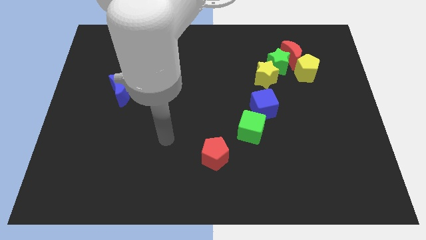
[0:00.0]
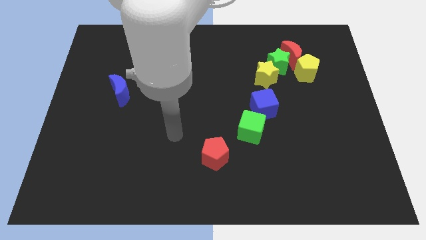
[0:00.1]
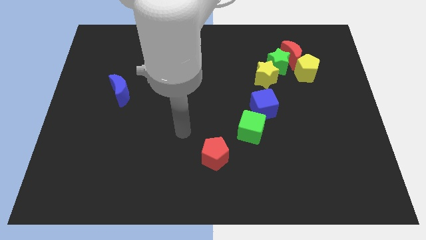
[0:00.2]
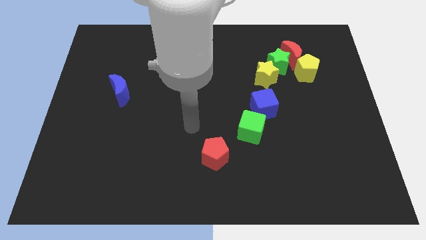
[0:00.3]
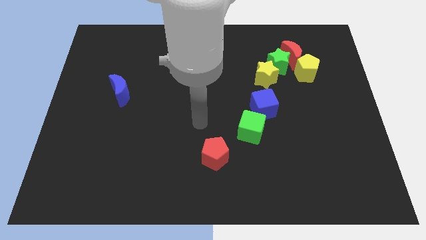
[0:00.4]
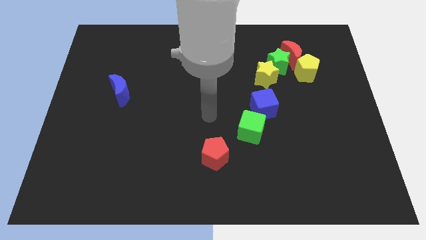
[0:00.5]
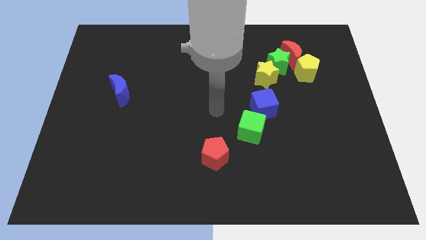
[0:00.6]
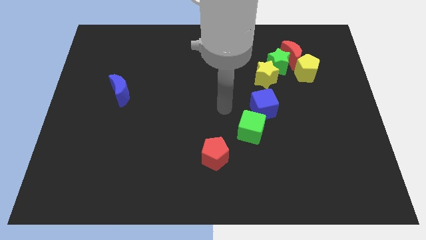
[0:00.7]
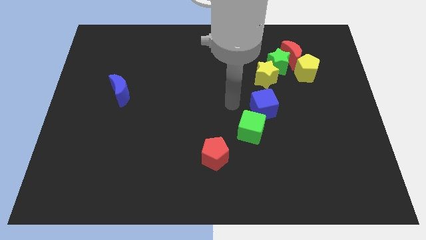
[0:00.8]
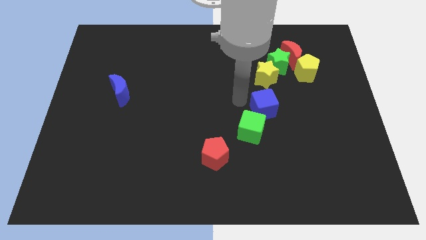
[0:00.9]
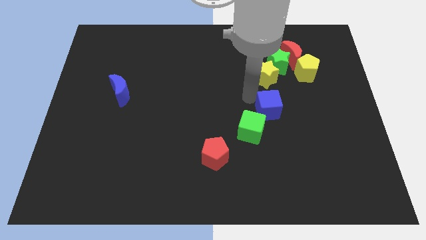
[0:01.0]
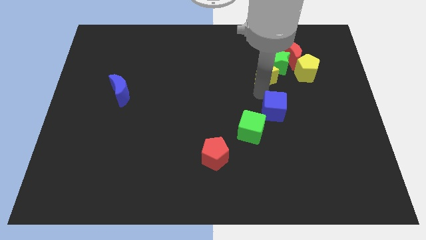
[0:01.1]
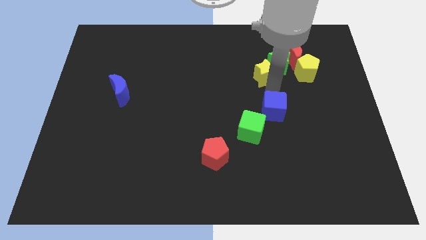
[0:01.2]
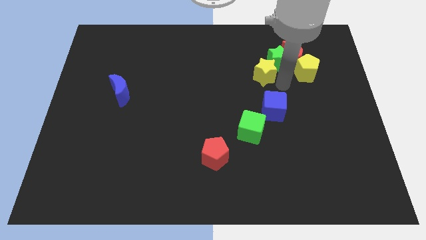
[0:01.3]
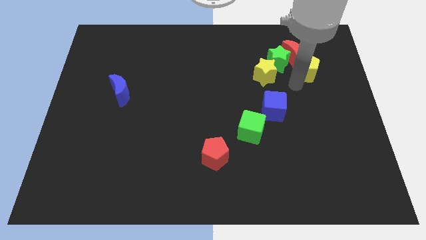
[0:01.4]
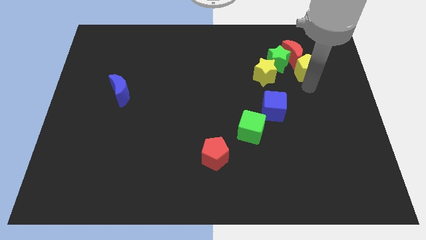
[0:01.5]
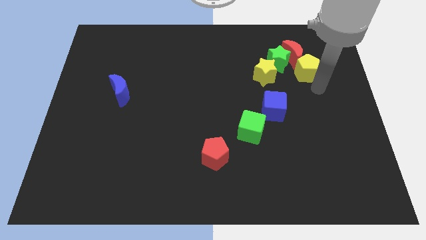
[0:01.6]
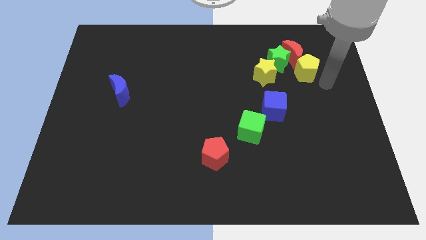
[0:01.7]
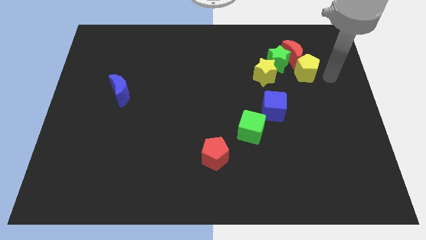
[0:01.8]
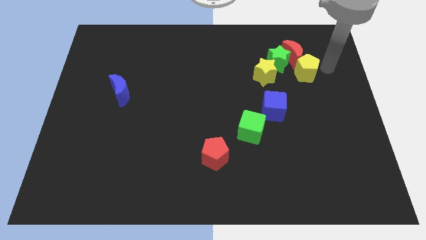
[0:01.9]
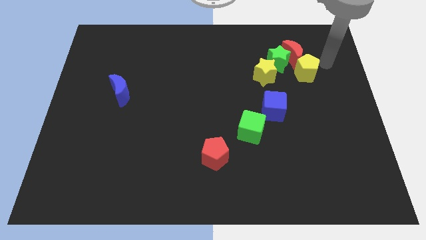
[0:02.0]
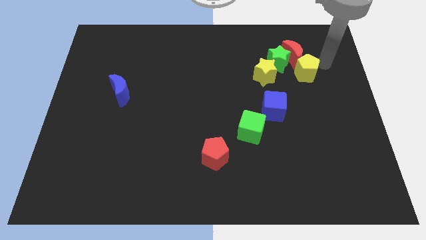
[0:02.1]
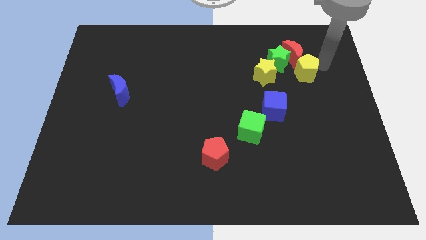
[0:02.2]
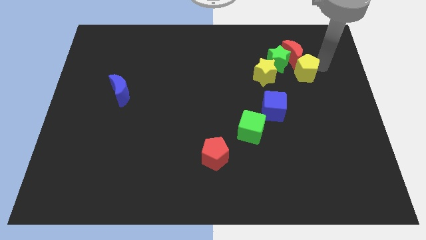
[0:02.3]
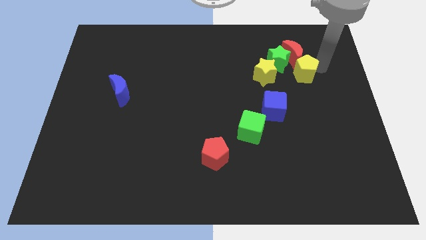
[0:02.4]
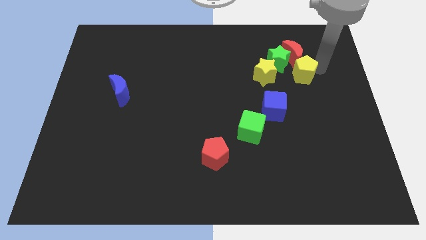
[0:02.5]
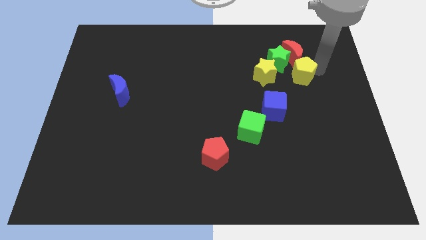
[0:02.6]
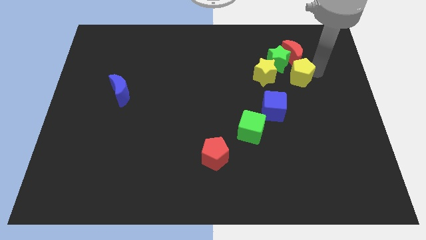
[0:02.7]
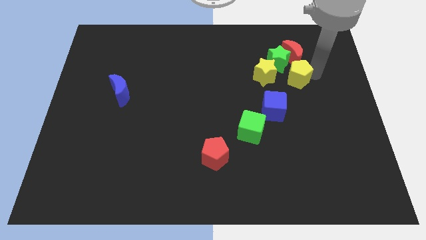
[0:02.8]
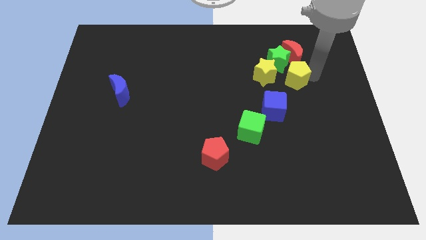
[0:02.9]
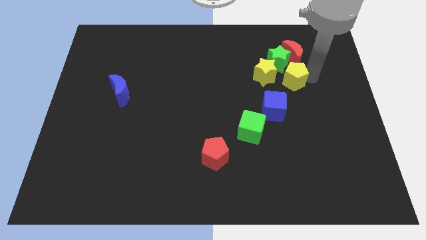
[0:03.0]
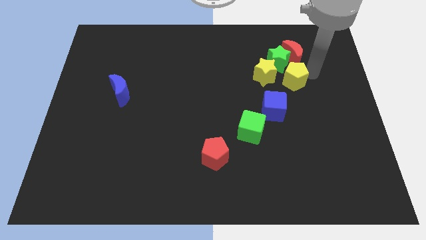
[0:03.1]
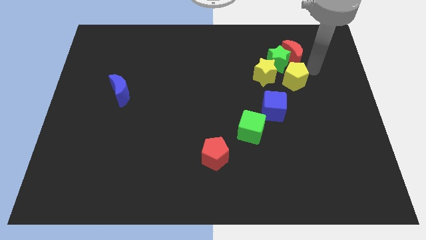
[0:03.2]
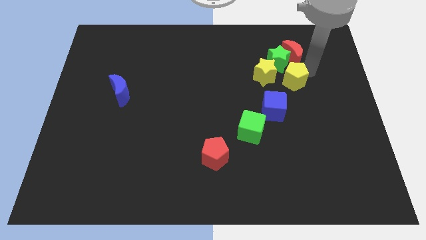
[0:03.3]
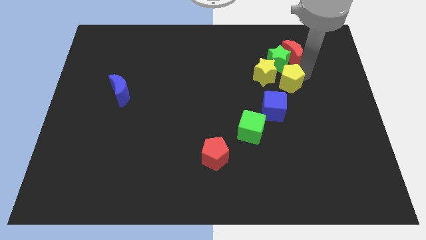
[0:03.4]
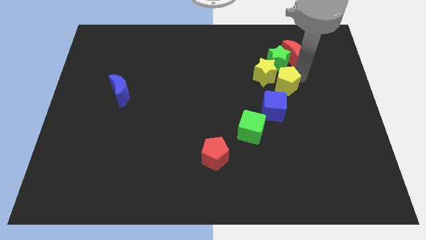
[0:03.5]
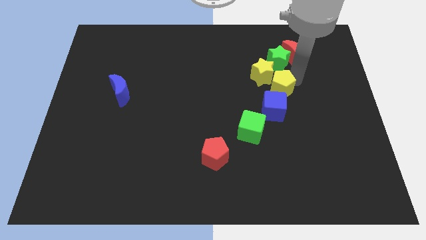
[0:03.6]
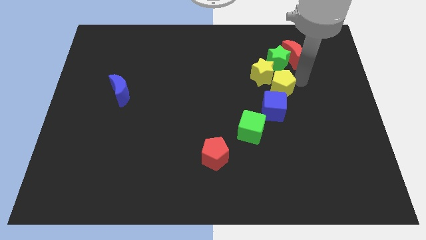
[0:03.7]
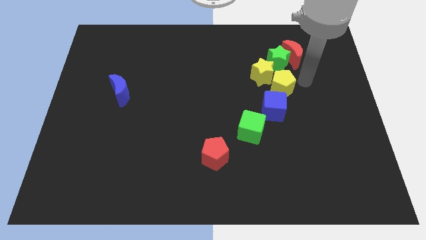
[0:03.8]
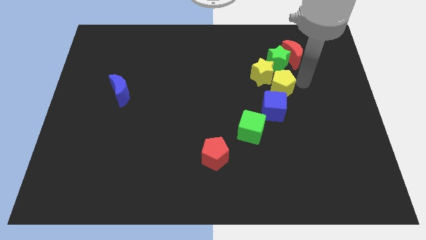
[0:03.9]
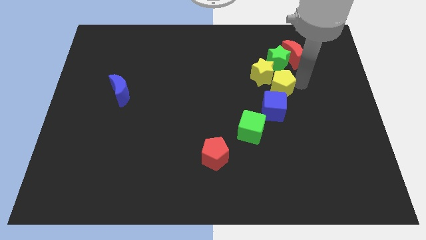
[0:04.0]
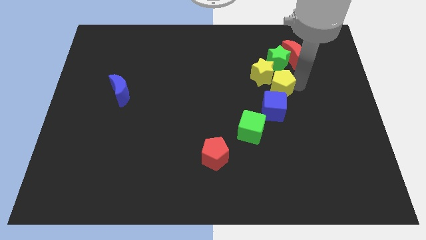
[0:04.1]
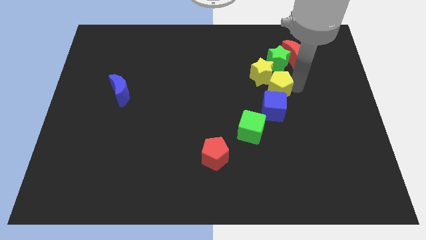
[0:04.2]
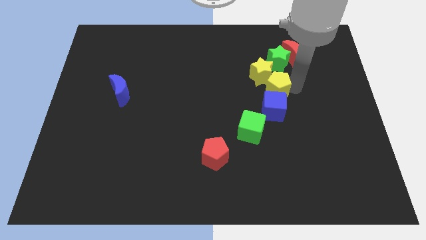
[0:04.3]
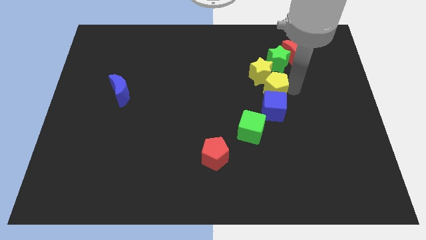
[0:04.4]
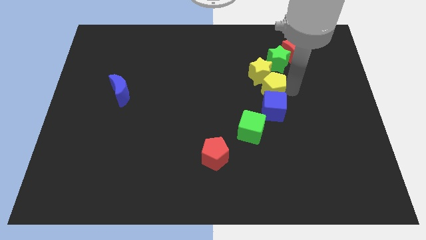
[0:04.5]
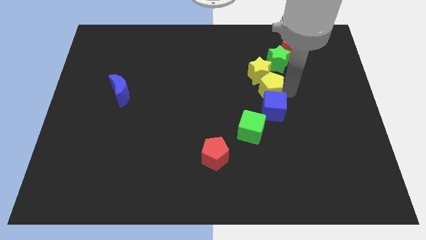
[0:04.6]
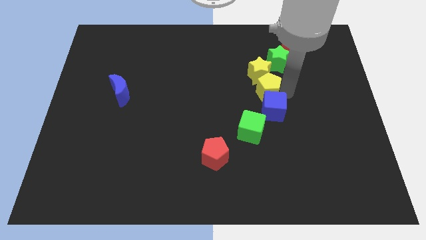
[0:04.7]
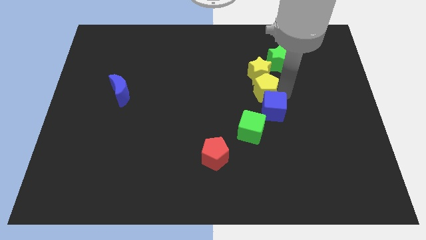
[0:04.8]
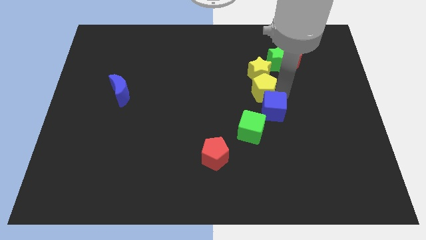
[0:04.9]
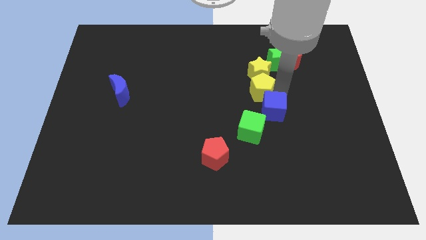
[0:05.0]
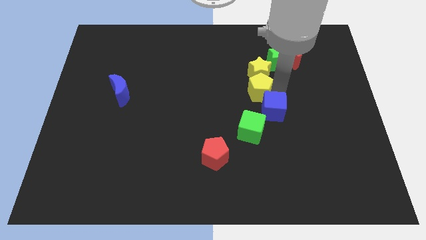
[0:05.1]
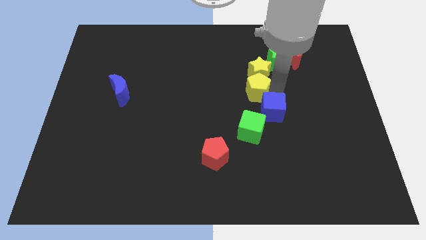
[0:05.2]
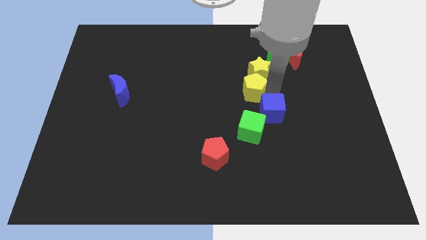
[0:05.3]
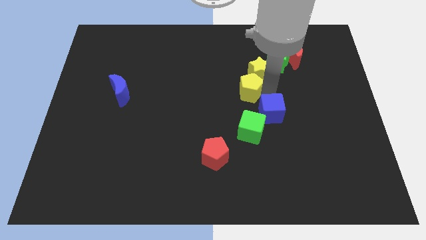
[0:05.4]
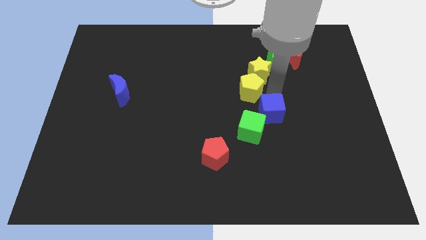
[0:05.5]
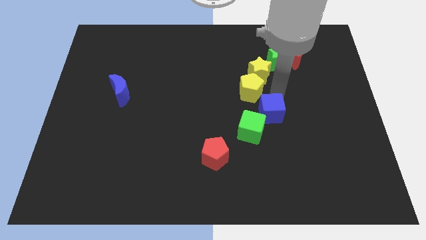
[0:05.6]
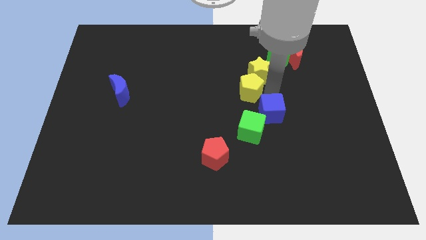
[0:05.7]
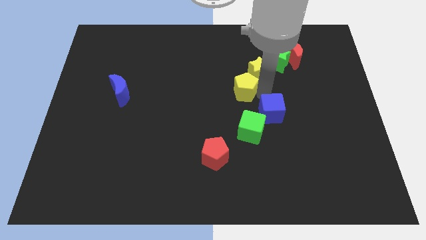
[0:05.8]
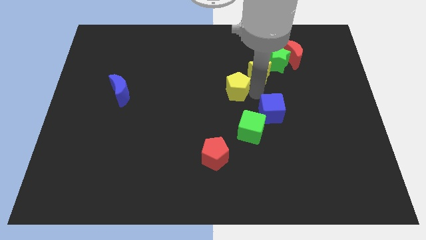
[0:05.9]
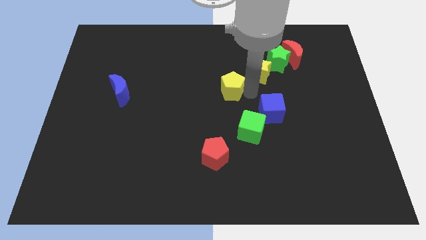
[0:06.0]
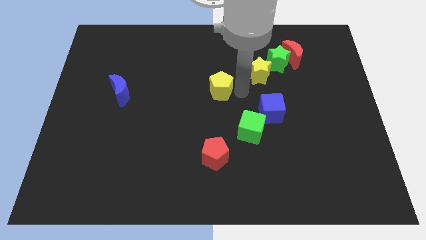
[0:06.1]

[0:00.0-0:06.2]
slide the yellow pentagon to the left

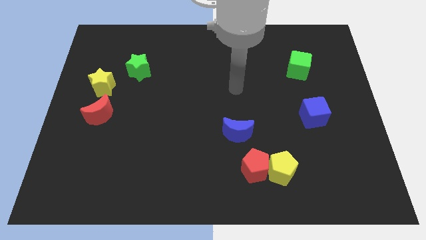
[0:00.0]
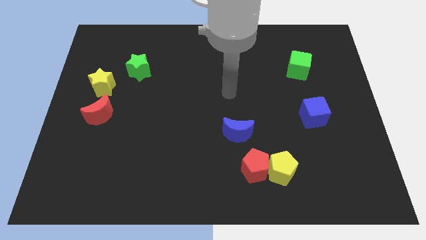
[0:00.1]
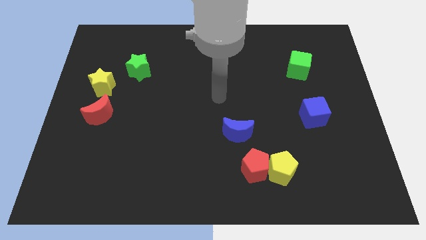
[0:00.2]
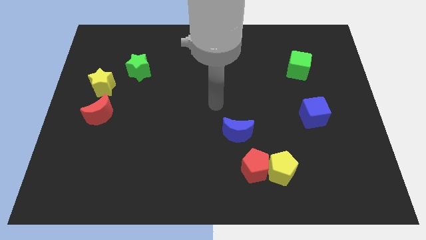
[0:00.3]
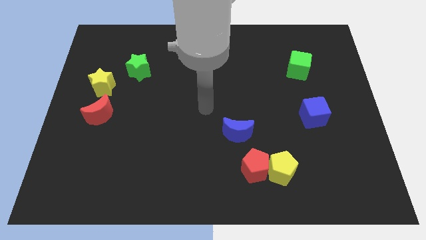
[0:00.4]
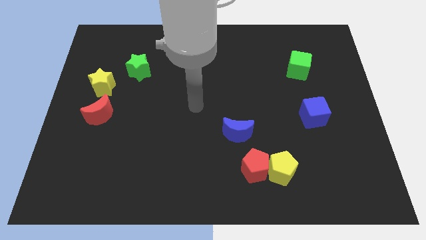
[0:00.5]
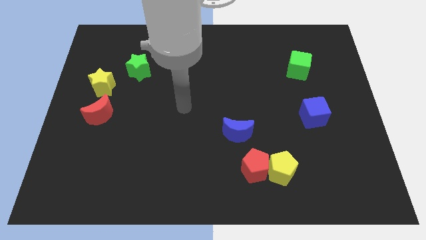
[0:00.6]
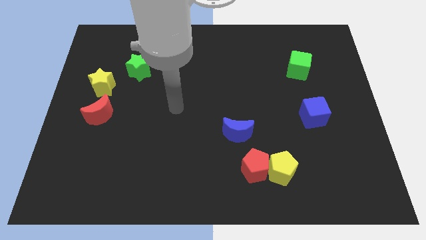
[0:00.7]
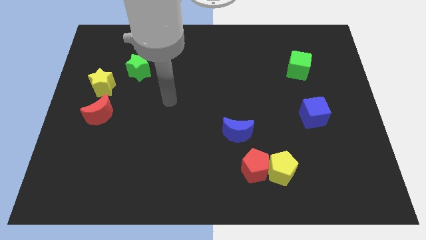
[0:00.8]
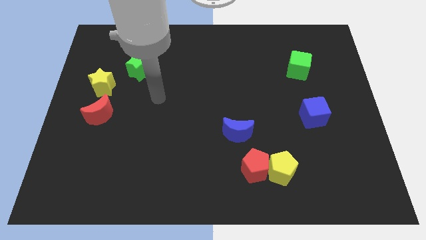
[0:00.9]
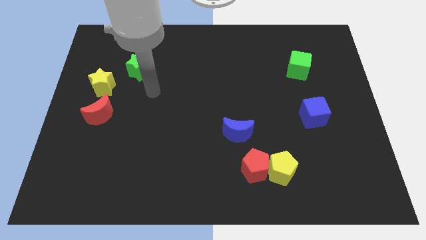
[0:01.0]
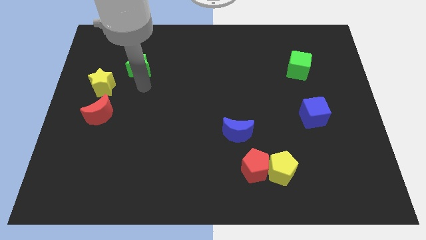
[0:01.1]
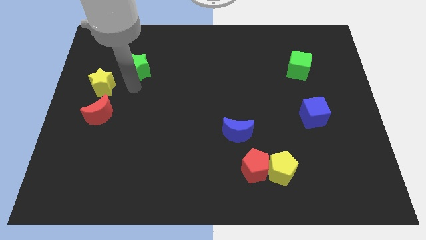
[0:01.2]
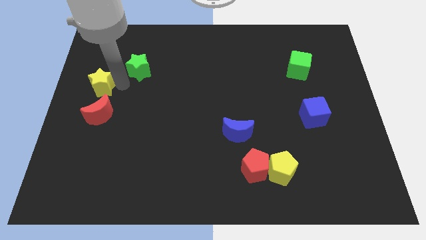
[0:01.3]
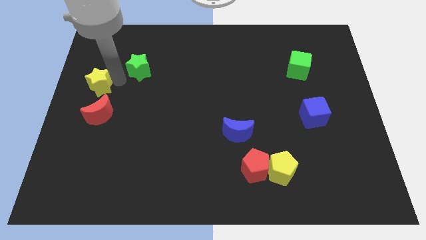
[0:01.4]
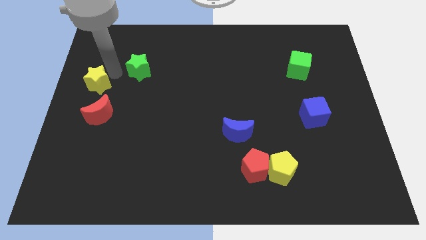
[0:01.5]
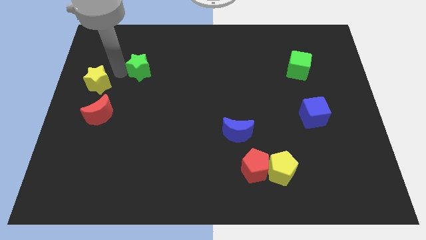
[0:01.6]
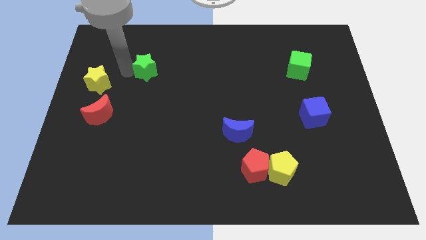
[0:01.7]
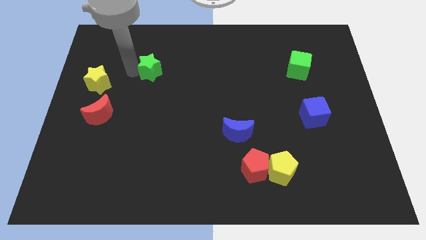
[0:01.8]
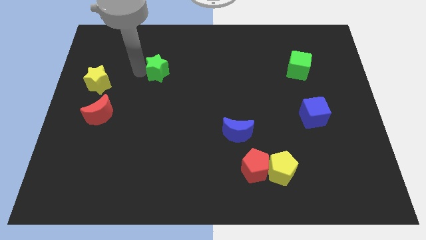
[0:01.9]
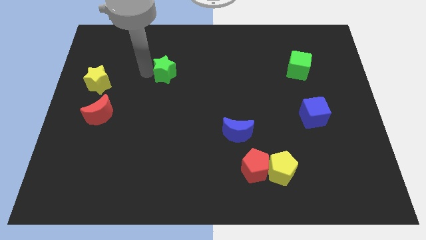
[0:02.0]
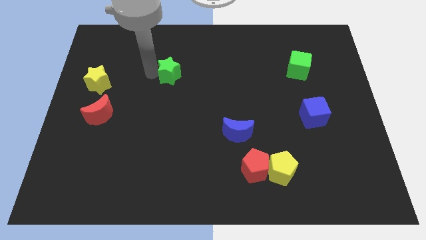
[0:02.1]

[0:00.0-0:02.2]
slightly slide the green star to the right
